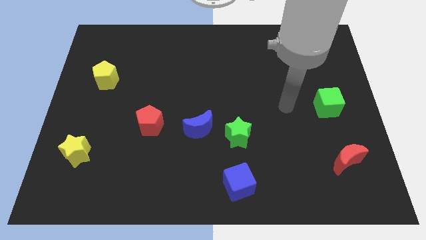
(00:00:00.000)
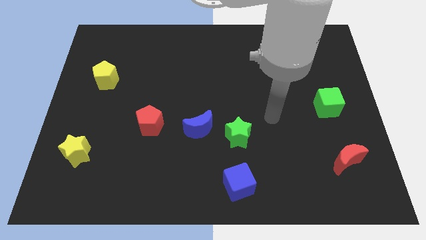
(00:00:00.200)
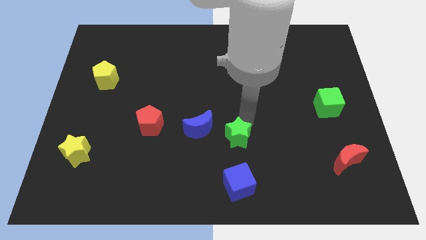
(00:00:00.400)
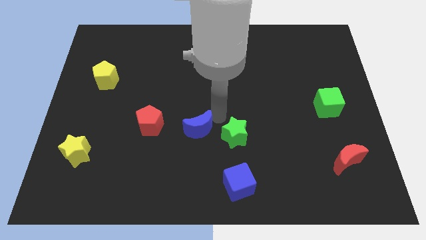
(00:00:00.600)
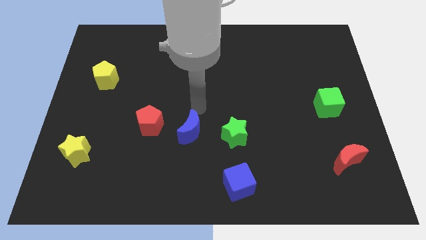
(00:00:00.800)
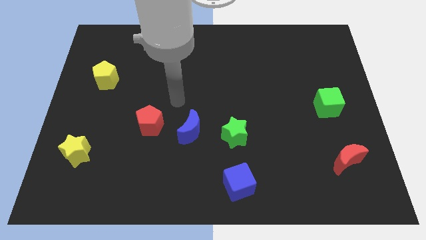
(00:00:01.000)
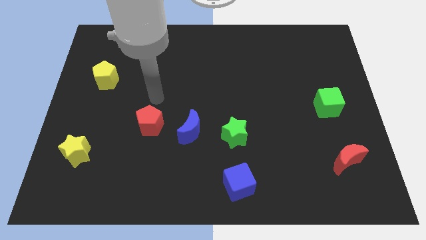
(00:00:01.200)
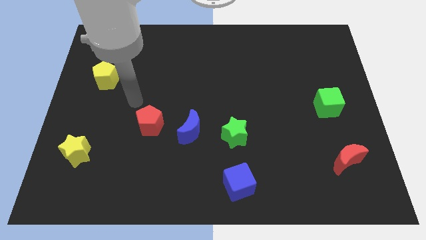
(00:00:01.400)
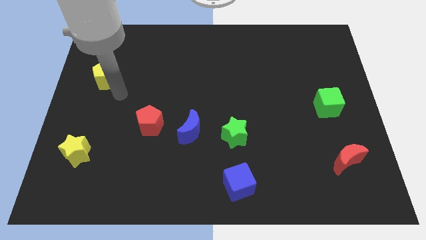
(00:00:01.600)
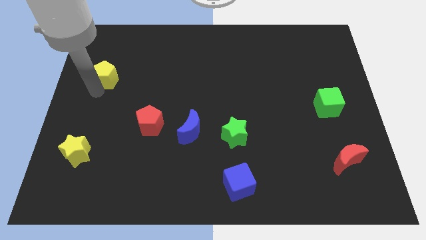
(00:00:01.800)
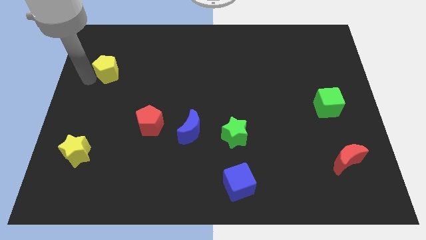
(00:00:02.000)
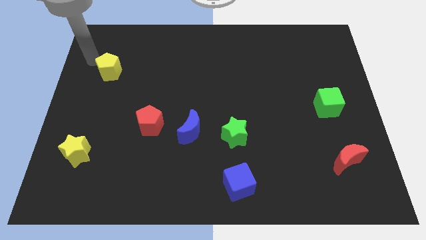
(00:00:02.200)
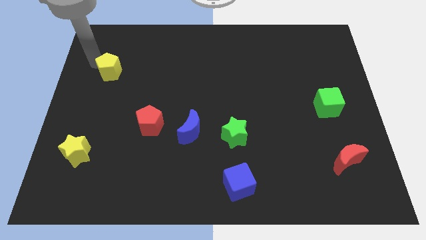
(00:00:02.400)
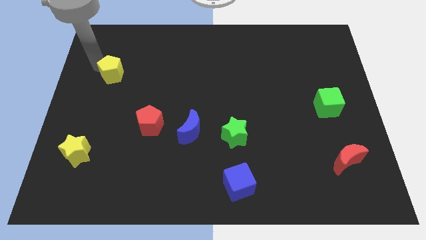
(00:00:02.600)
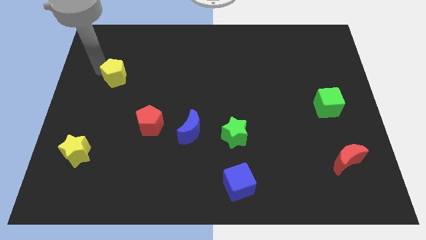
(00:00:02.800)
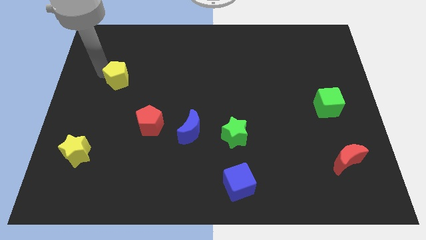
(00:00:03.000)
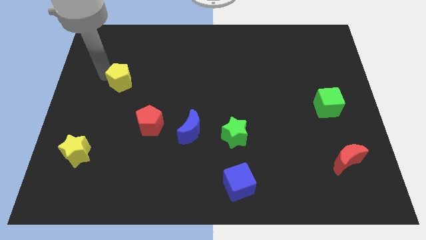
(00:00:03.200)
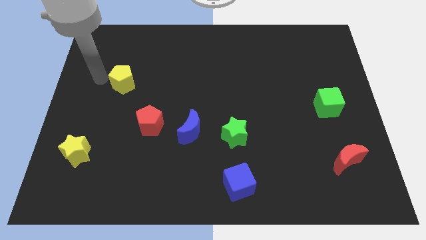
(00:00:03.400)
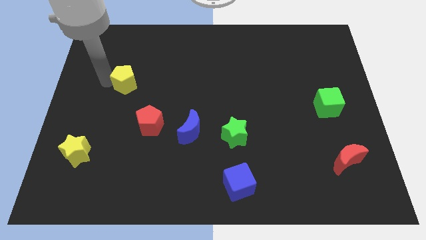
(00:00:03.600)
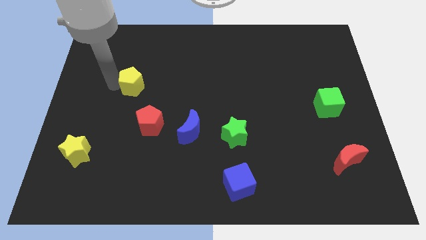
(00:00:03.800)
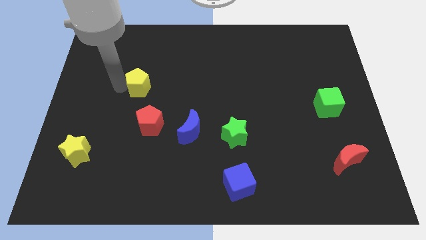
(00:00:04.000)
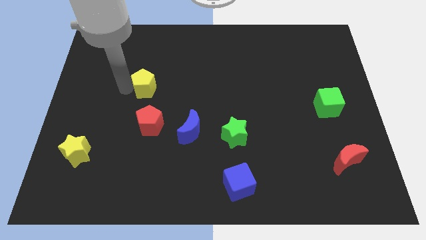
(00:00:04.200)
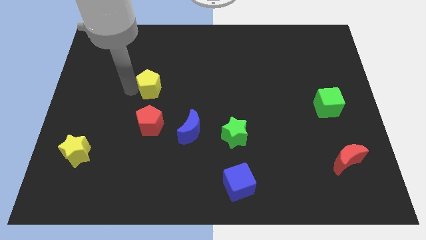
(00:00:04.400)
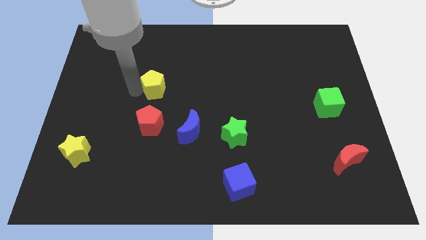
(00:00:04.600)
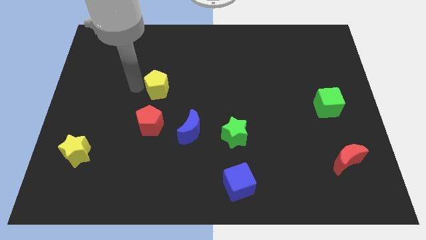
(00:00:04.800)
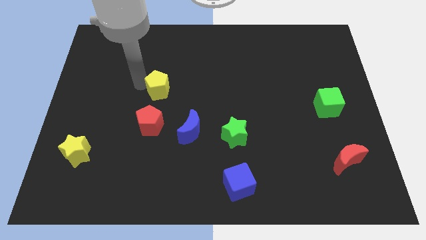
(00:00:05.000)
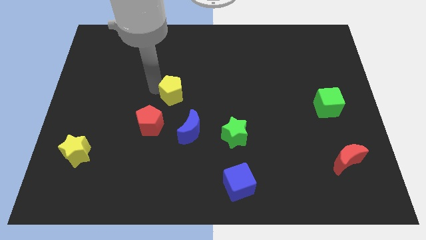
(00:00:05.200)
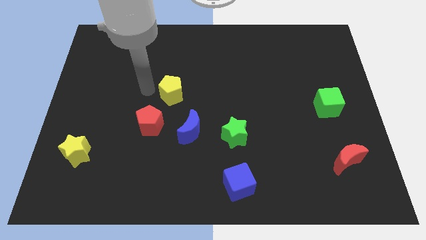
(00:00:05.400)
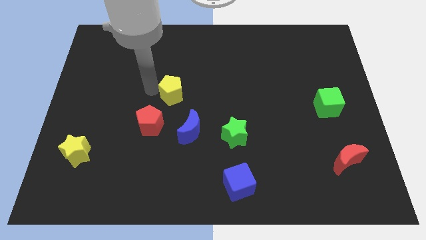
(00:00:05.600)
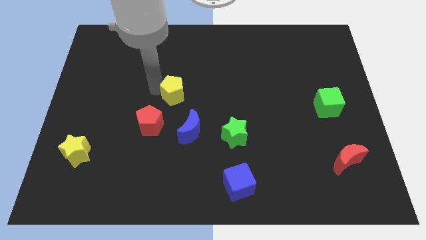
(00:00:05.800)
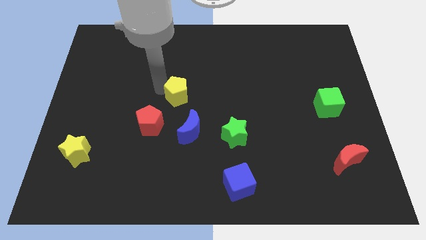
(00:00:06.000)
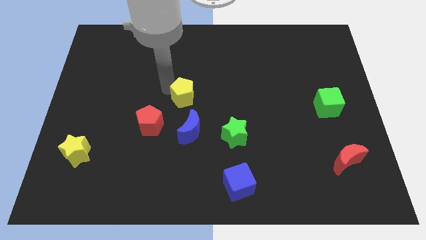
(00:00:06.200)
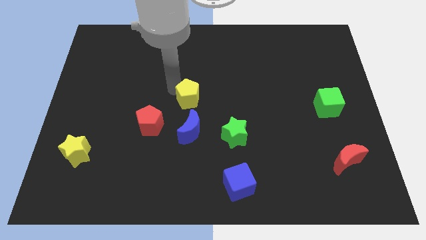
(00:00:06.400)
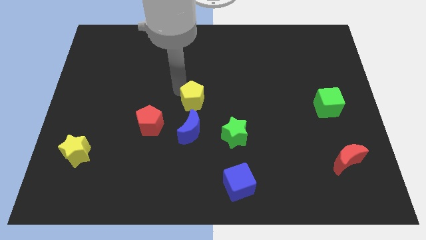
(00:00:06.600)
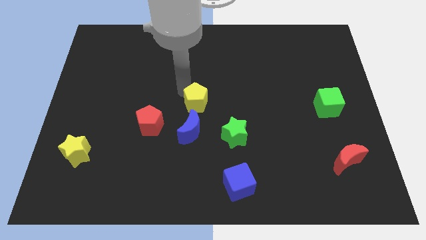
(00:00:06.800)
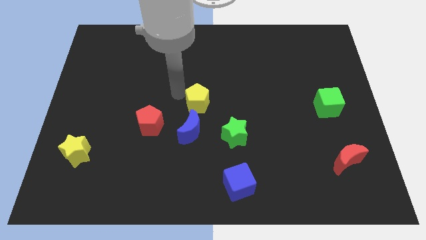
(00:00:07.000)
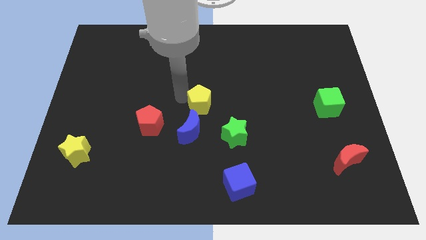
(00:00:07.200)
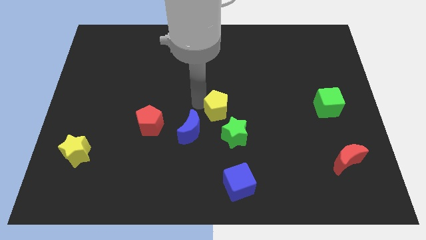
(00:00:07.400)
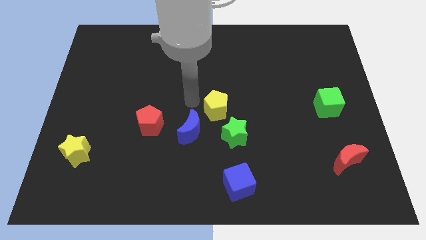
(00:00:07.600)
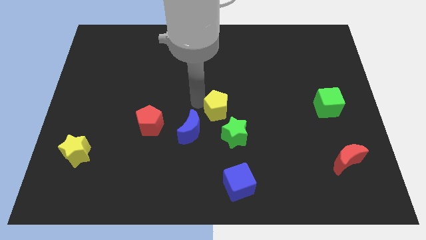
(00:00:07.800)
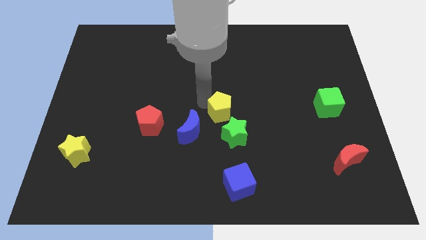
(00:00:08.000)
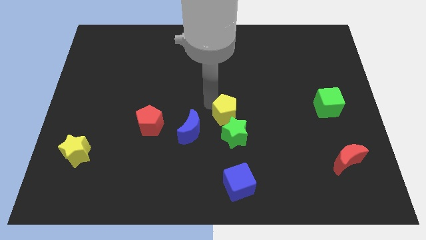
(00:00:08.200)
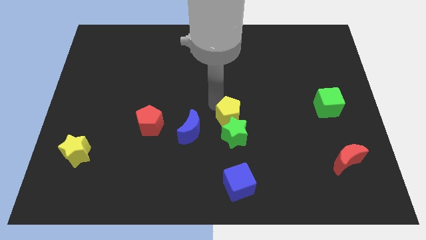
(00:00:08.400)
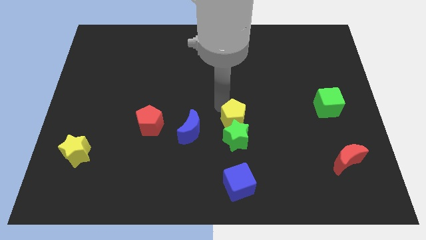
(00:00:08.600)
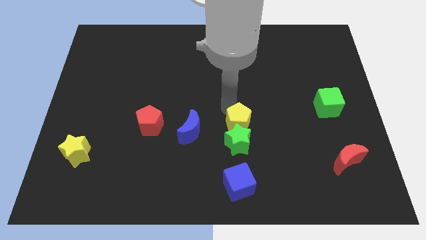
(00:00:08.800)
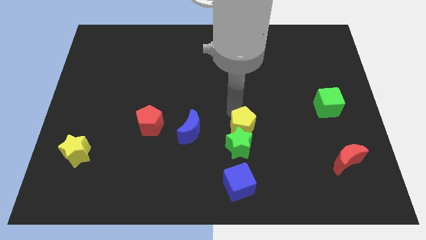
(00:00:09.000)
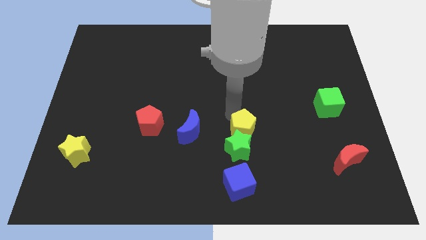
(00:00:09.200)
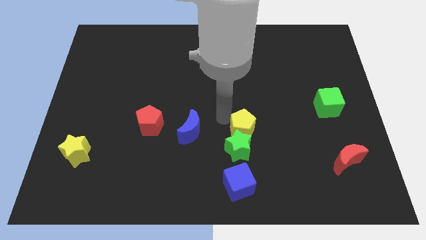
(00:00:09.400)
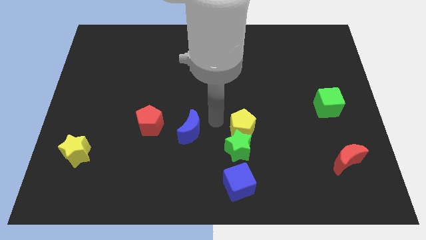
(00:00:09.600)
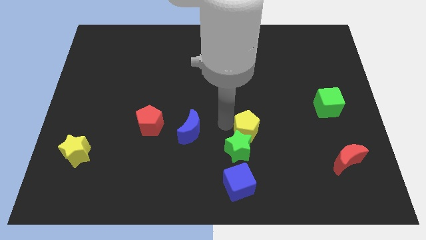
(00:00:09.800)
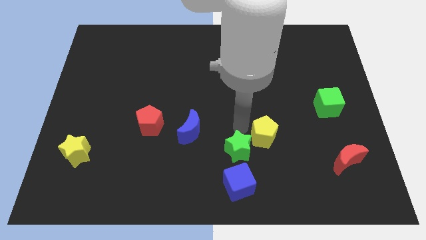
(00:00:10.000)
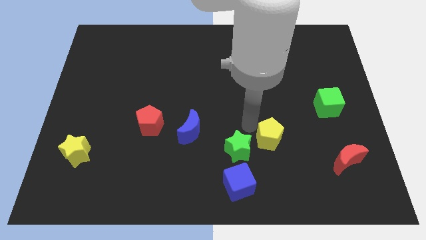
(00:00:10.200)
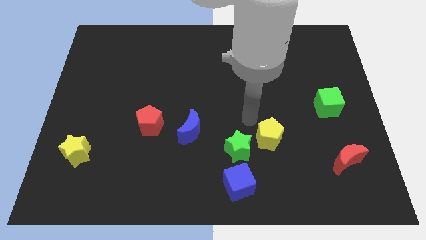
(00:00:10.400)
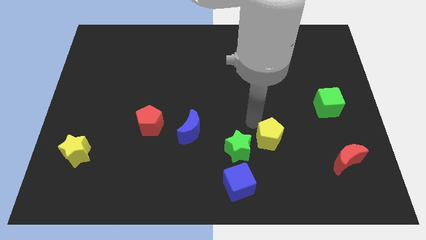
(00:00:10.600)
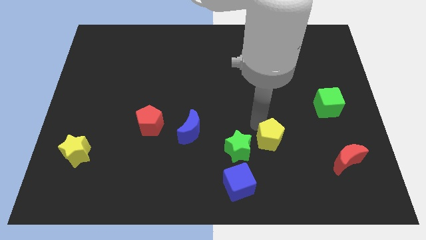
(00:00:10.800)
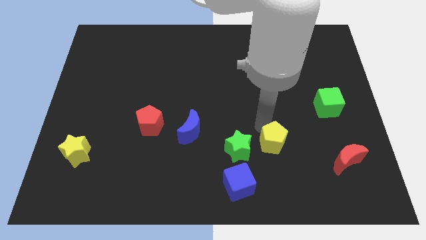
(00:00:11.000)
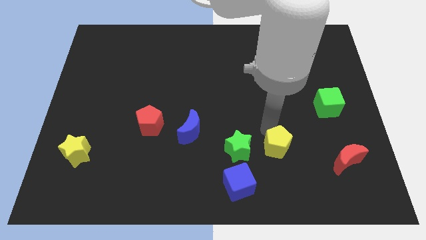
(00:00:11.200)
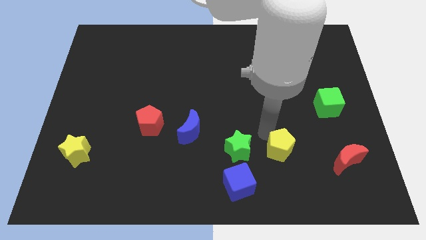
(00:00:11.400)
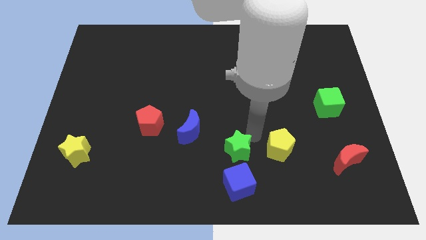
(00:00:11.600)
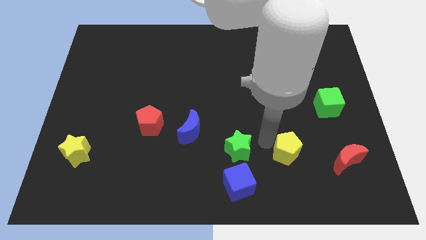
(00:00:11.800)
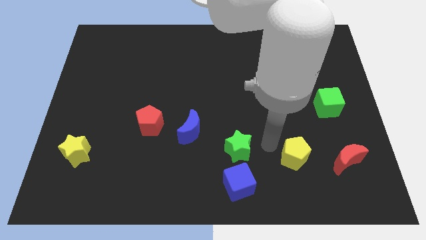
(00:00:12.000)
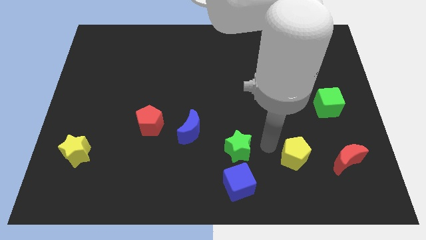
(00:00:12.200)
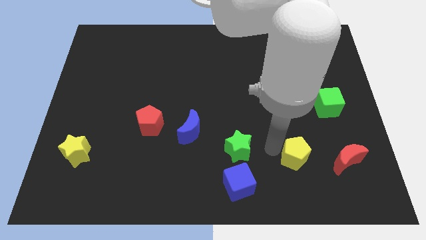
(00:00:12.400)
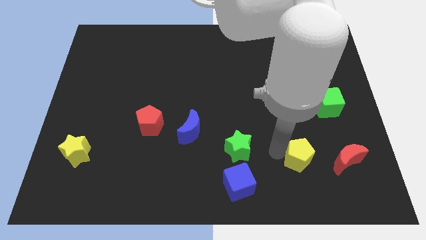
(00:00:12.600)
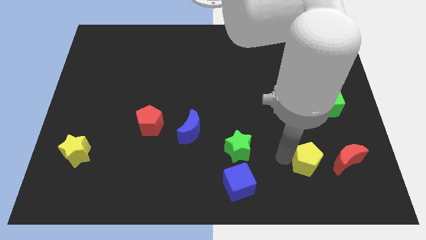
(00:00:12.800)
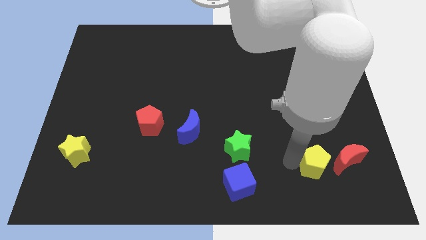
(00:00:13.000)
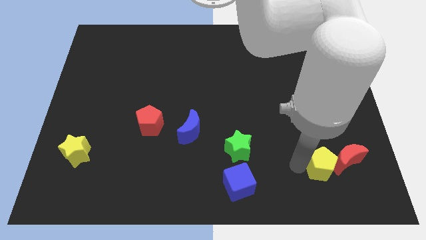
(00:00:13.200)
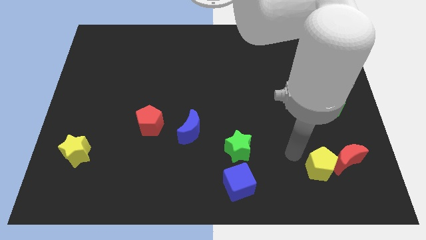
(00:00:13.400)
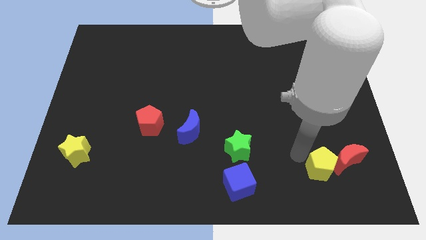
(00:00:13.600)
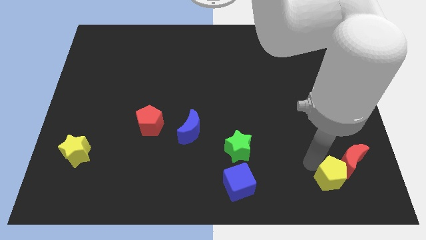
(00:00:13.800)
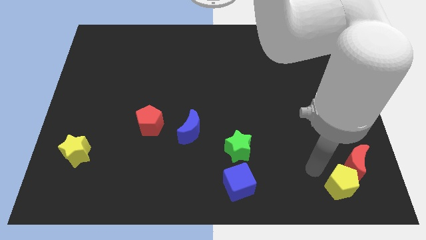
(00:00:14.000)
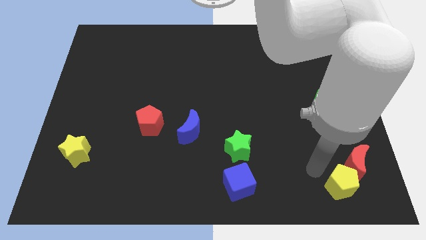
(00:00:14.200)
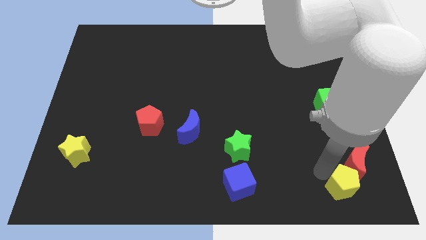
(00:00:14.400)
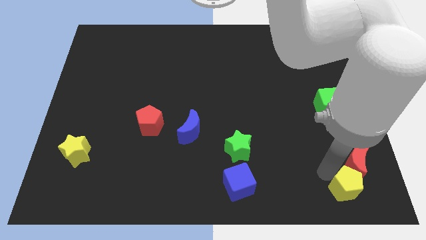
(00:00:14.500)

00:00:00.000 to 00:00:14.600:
put the yellow pentagon to the lower right corner
